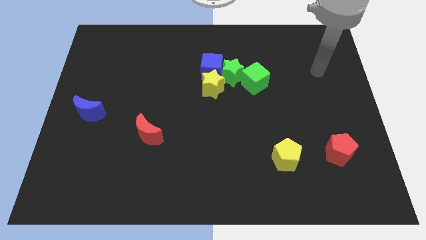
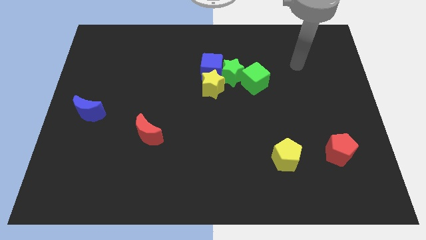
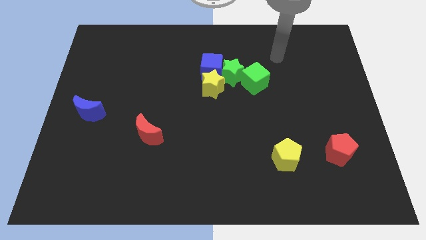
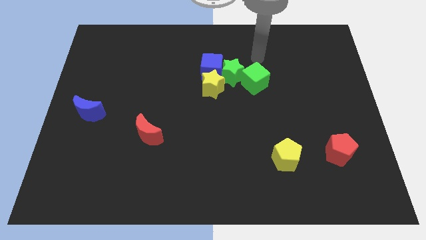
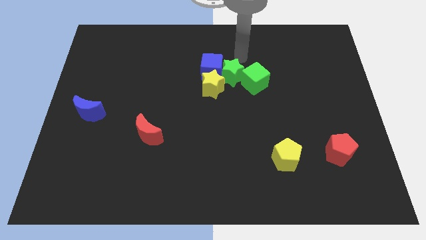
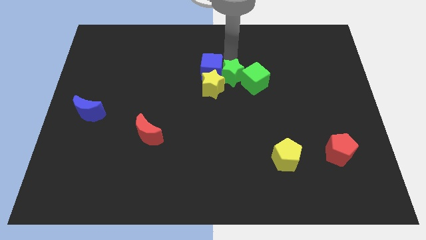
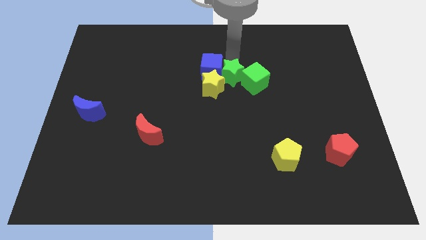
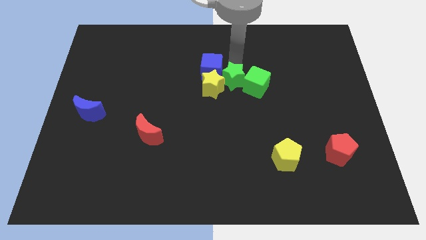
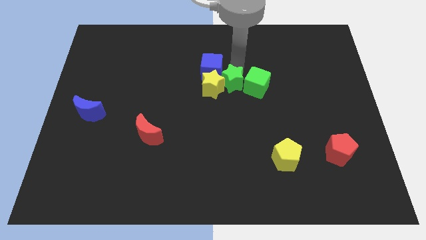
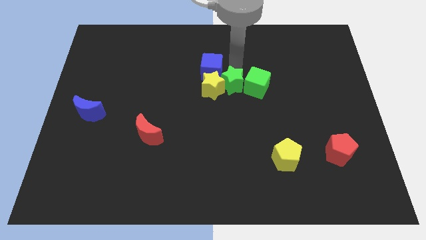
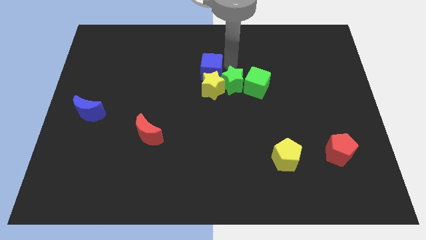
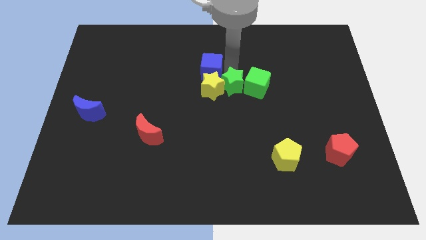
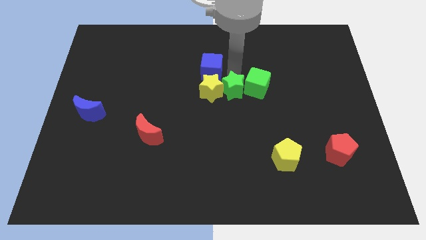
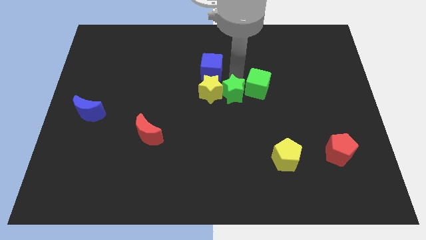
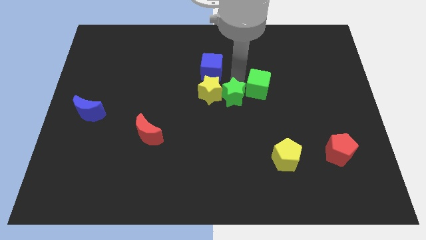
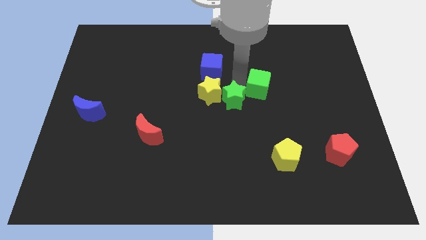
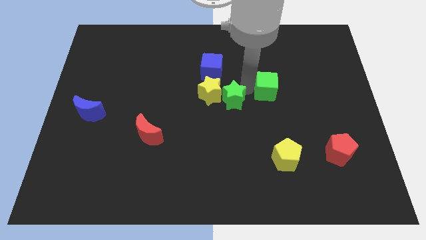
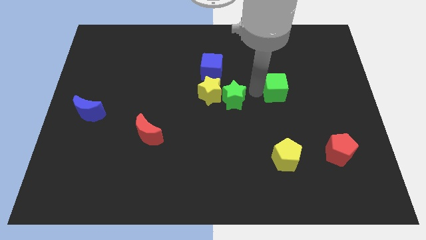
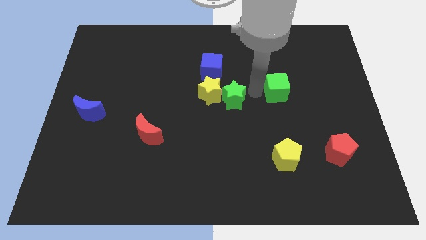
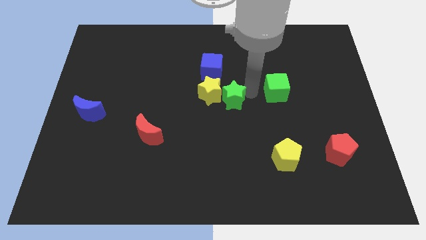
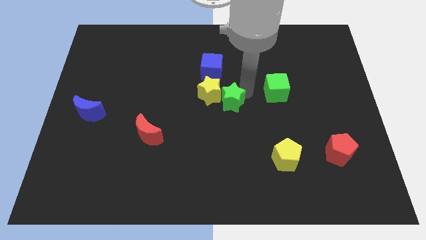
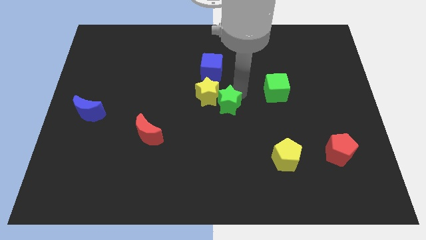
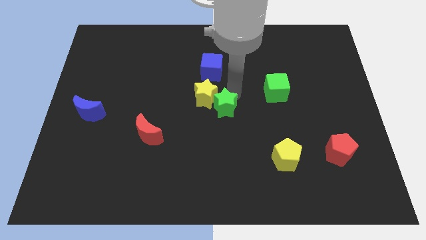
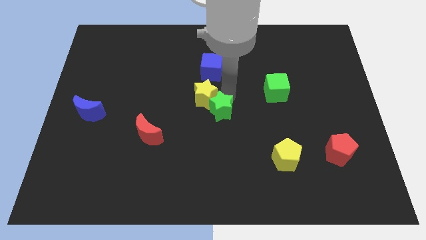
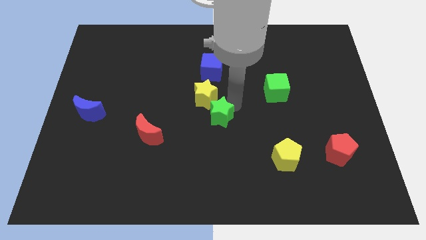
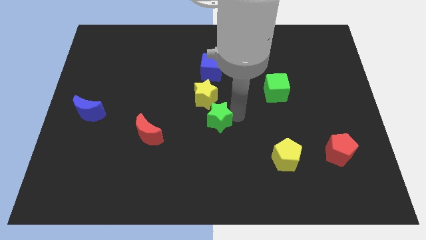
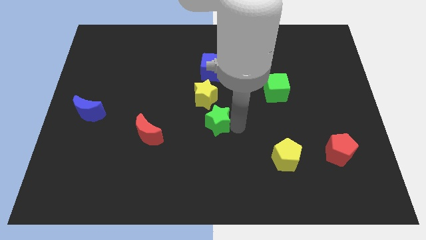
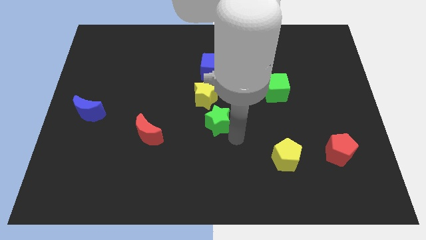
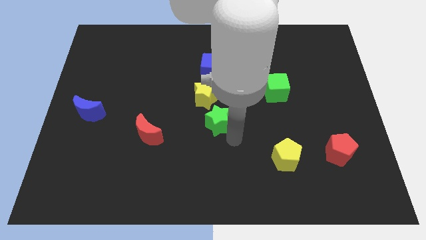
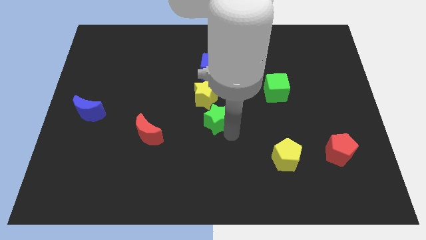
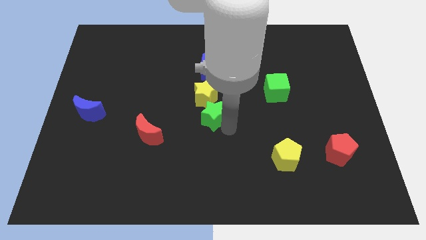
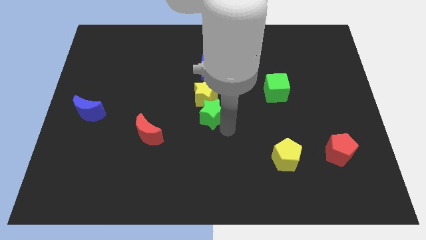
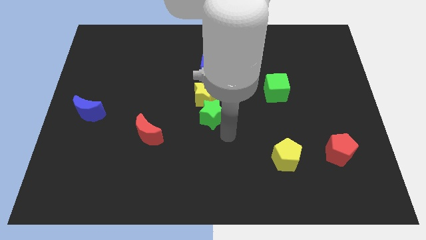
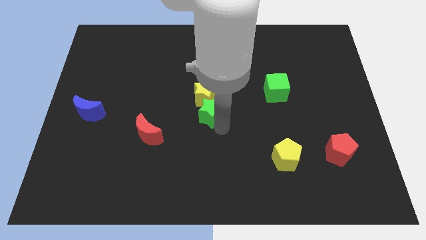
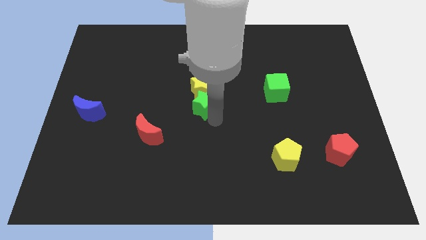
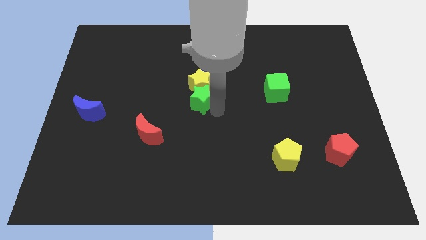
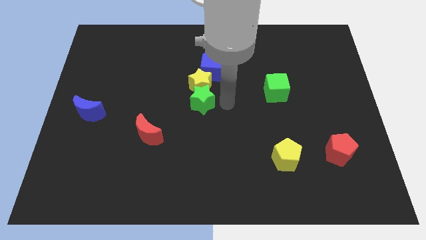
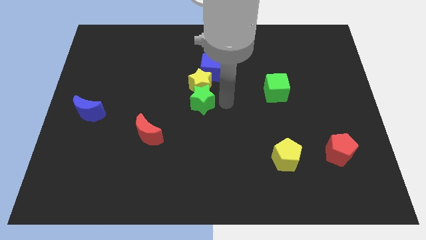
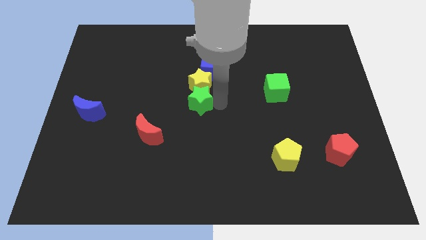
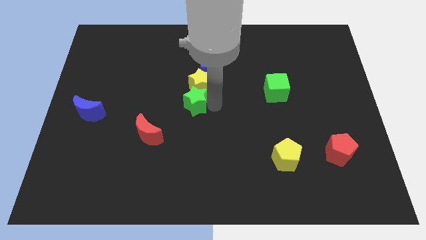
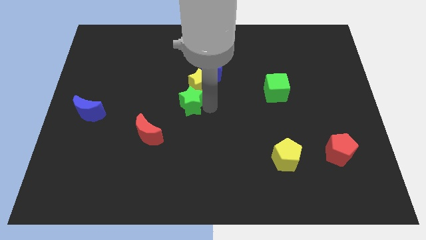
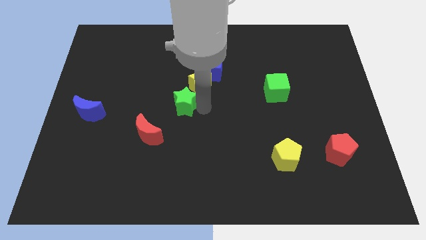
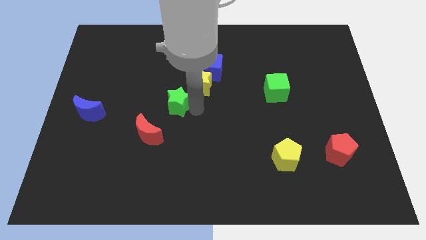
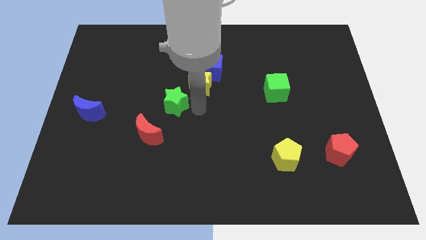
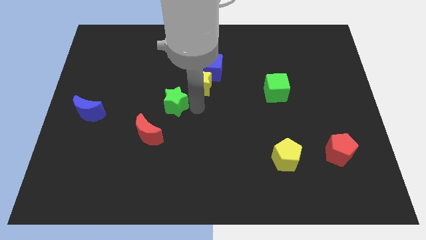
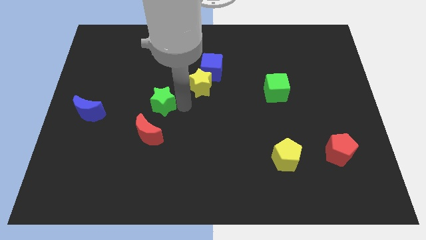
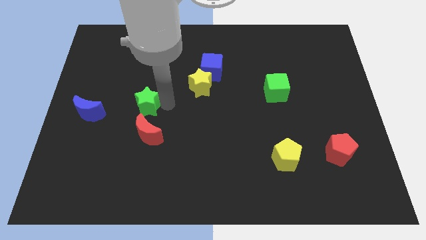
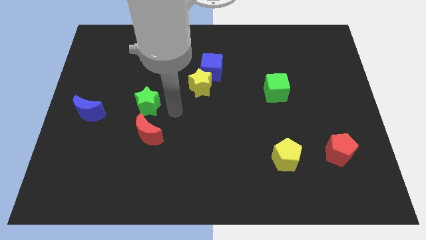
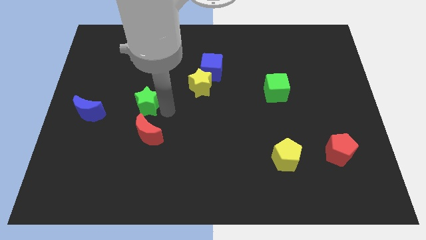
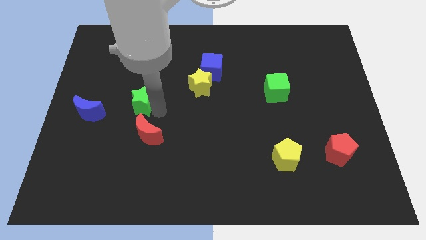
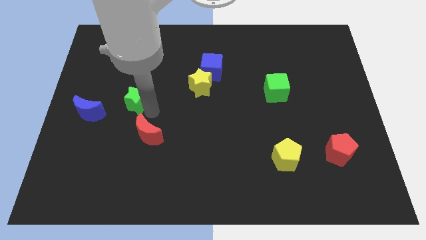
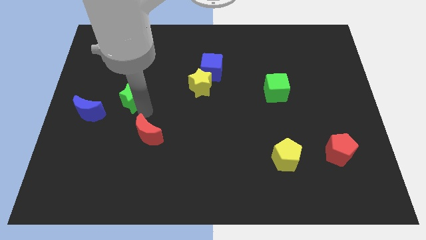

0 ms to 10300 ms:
put the green star diagonally up and to the right of the blue moon

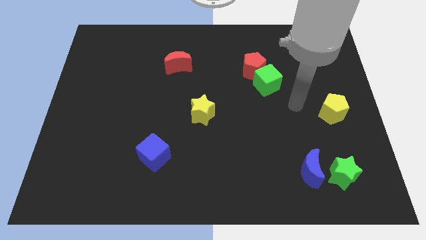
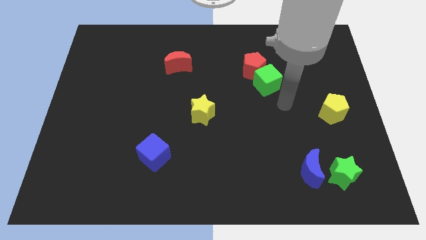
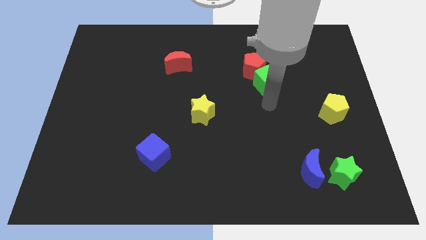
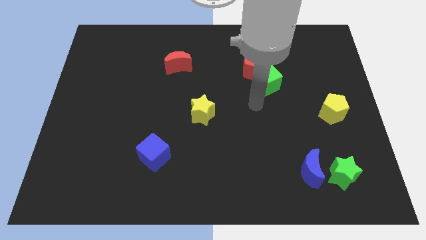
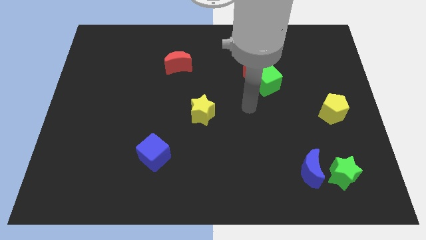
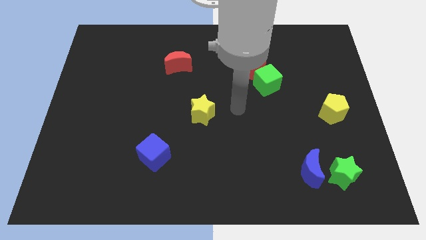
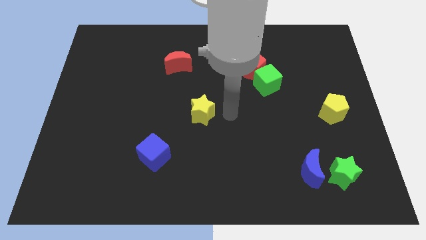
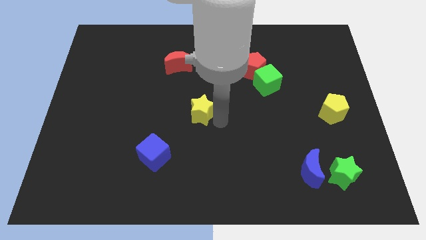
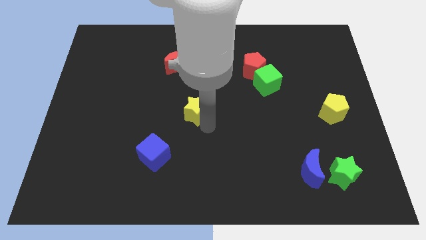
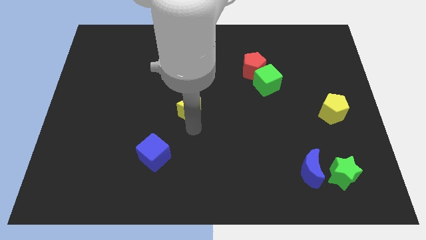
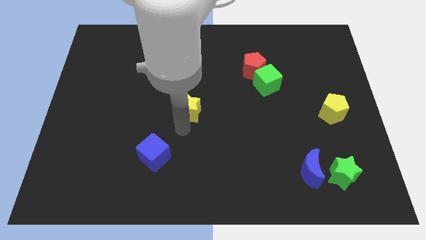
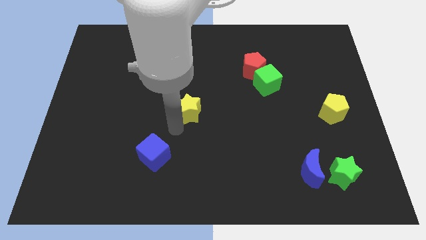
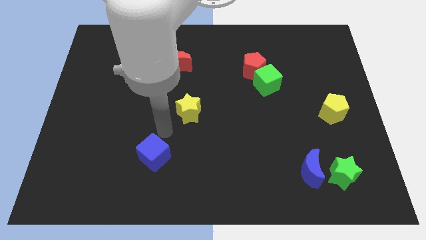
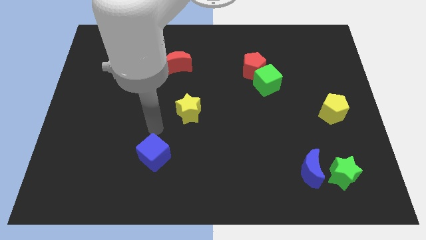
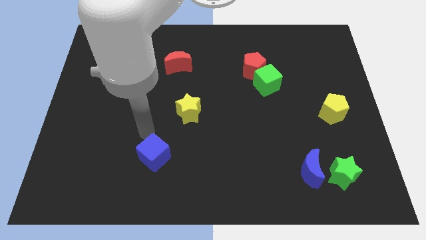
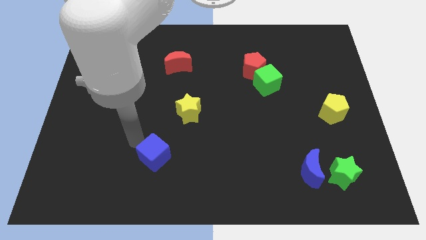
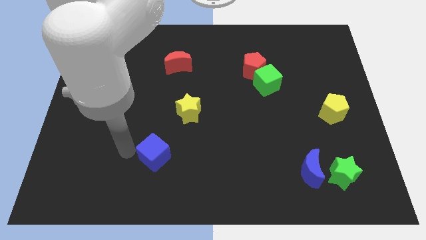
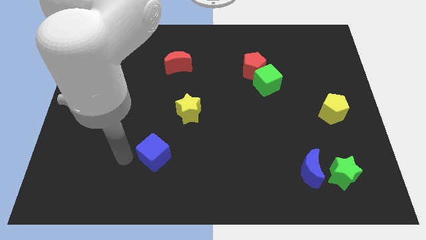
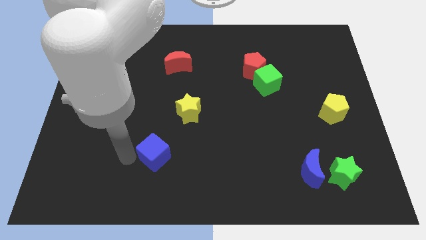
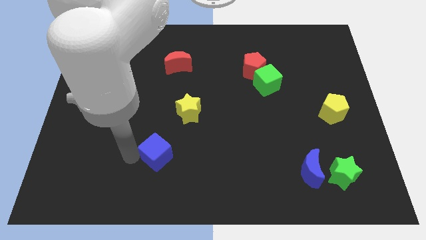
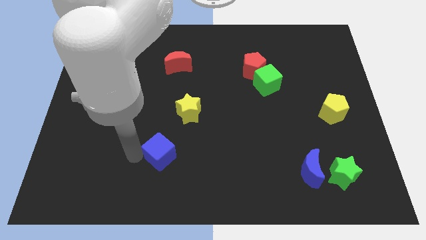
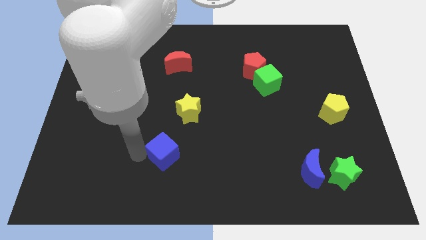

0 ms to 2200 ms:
slide the blue cube to the bottom side of the yellow star
